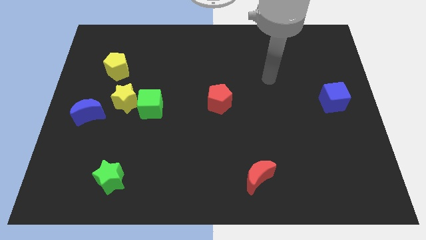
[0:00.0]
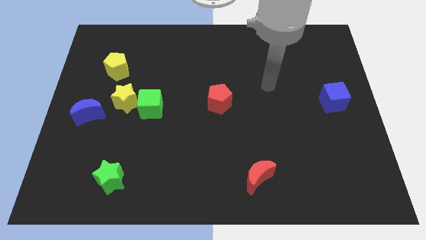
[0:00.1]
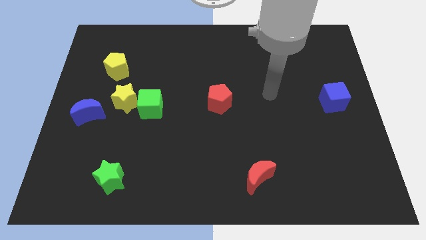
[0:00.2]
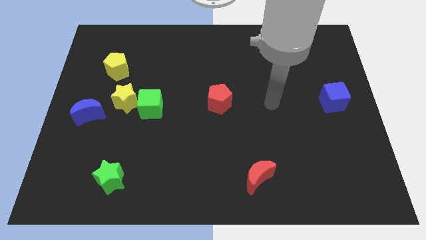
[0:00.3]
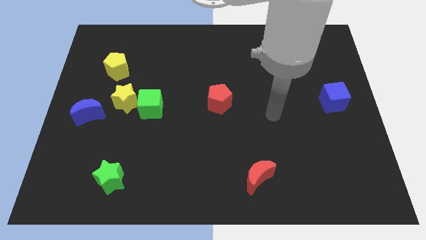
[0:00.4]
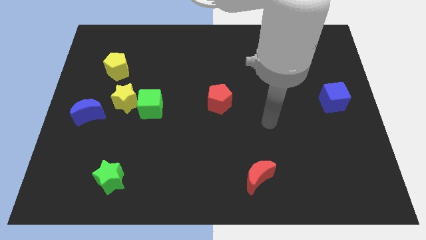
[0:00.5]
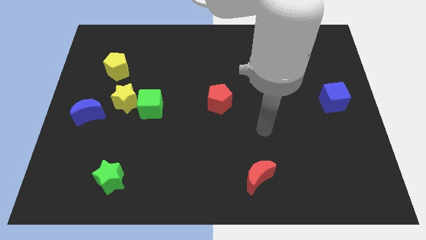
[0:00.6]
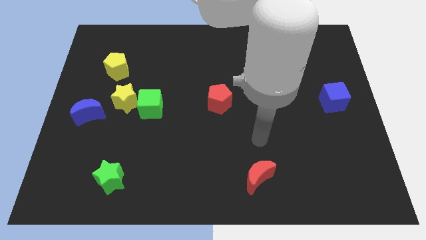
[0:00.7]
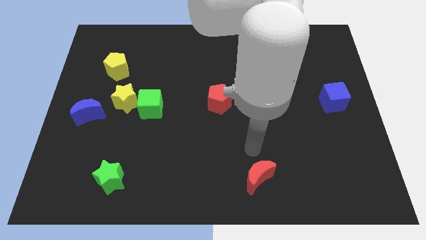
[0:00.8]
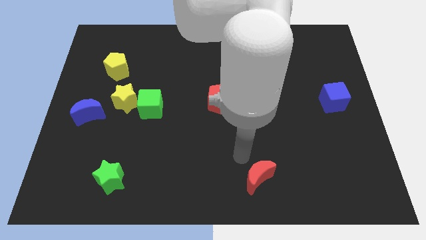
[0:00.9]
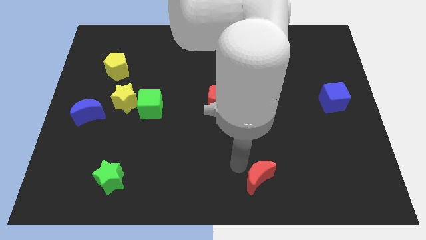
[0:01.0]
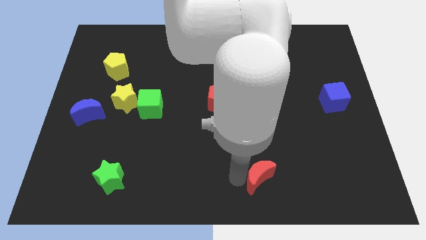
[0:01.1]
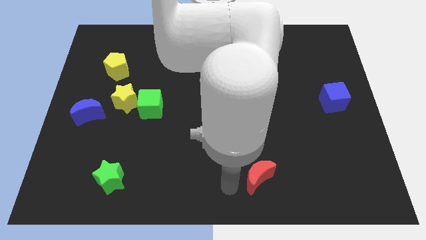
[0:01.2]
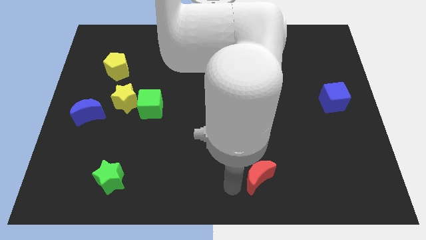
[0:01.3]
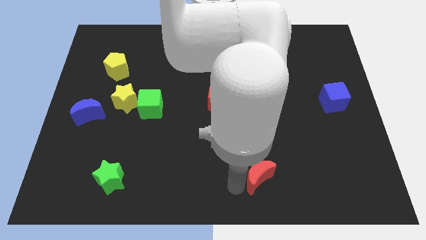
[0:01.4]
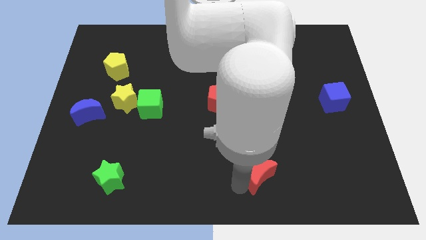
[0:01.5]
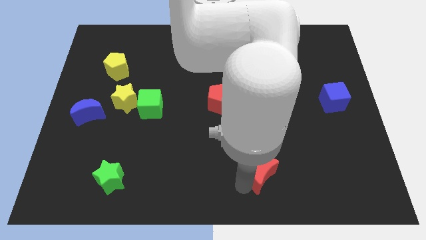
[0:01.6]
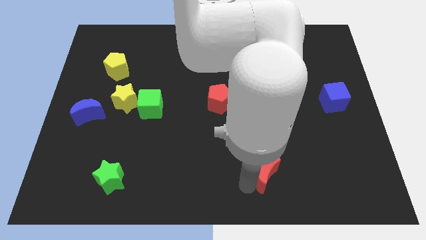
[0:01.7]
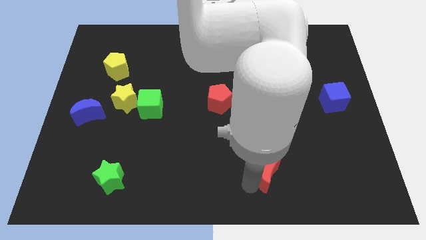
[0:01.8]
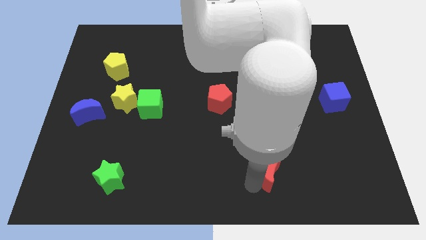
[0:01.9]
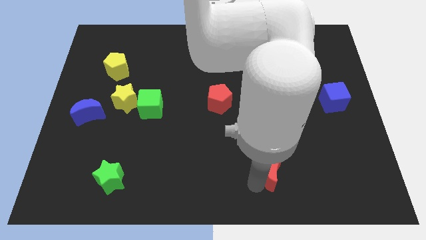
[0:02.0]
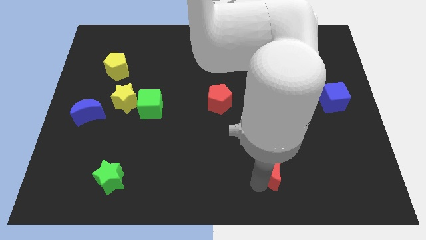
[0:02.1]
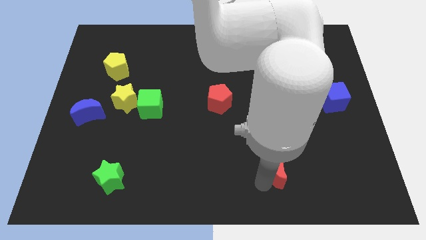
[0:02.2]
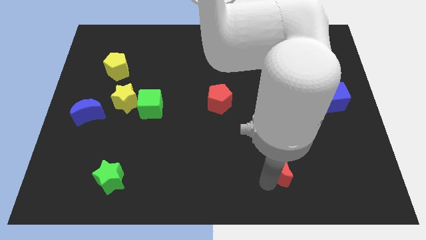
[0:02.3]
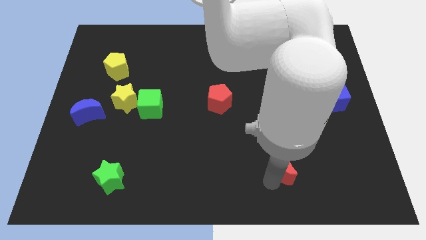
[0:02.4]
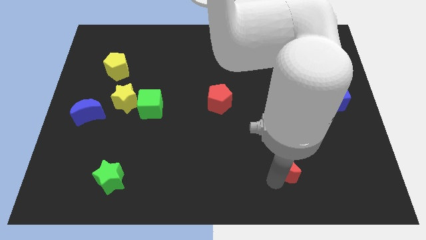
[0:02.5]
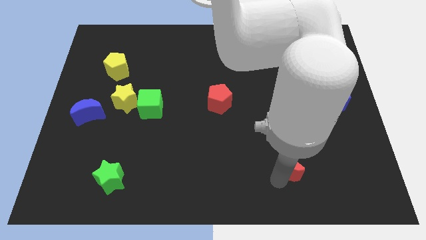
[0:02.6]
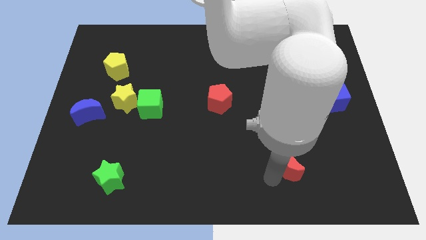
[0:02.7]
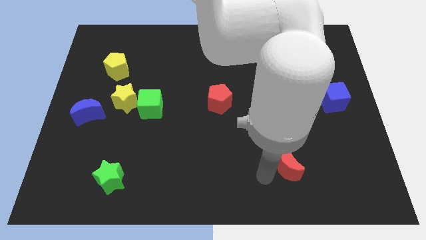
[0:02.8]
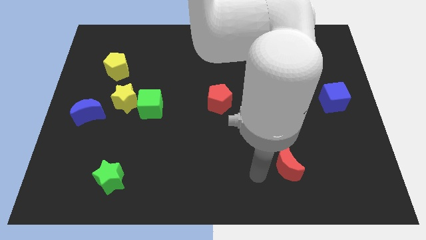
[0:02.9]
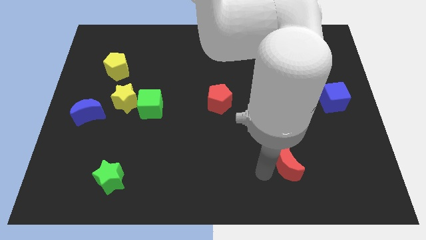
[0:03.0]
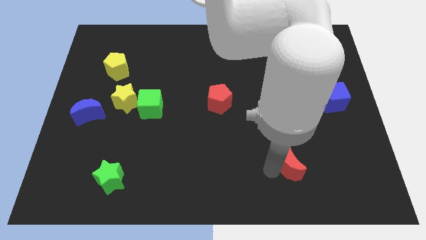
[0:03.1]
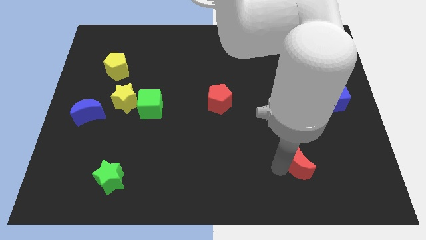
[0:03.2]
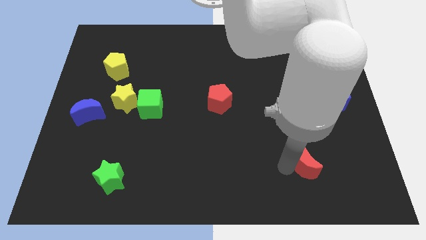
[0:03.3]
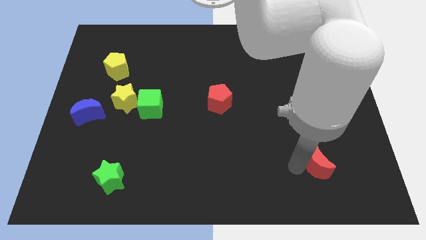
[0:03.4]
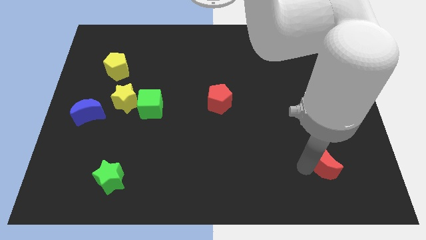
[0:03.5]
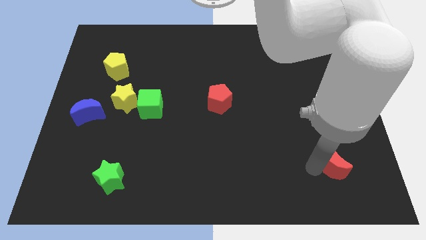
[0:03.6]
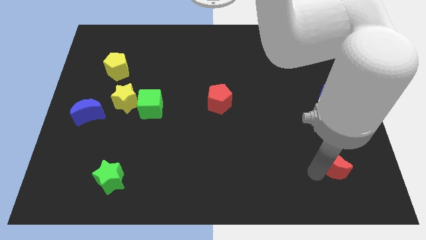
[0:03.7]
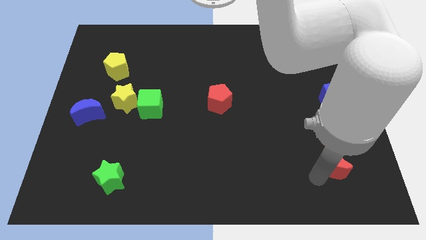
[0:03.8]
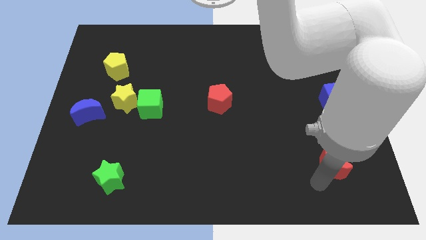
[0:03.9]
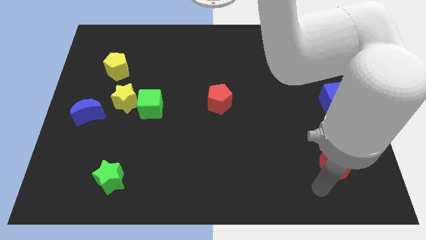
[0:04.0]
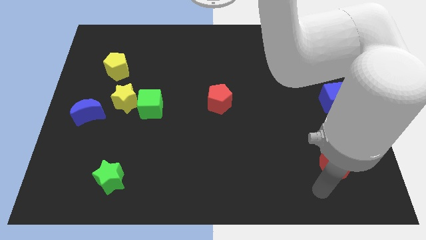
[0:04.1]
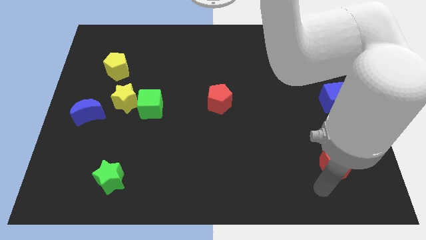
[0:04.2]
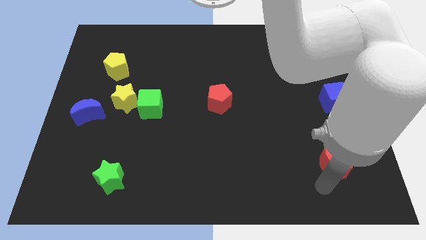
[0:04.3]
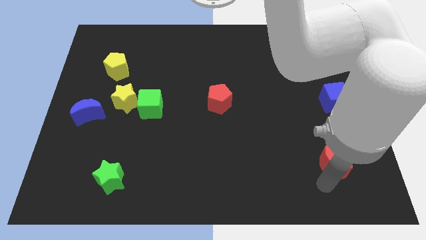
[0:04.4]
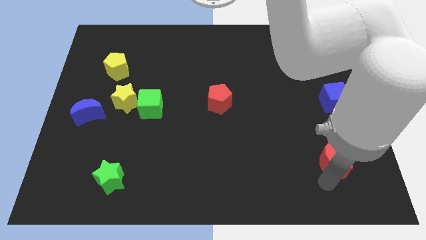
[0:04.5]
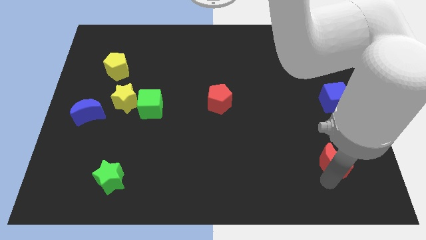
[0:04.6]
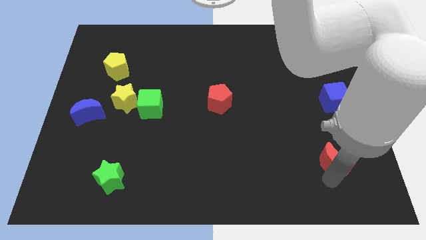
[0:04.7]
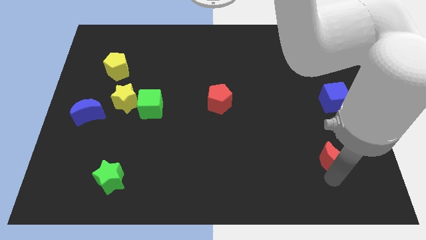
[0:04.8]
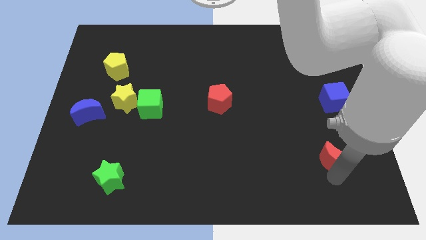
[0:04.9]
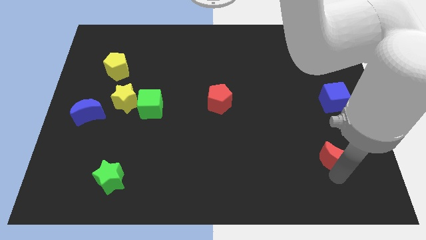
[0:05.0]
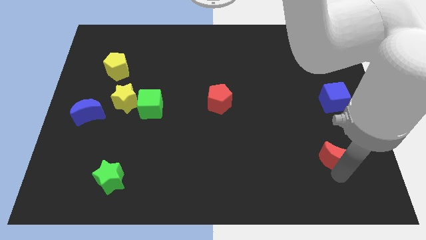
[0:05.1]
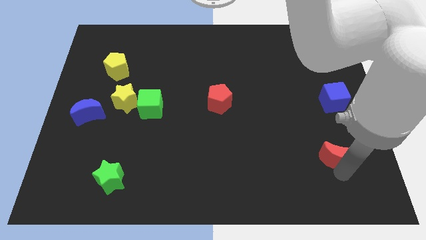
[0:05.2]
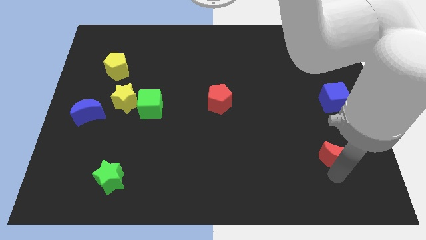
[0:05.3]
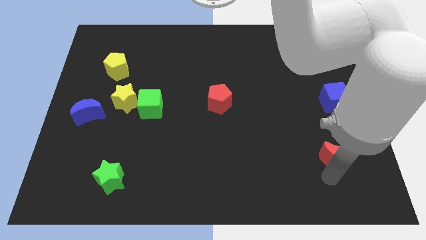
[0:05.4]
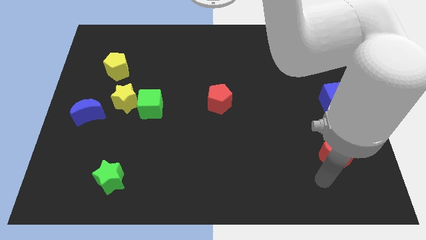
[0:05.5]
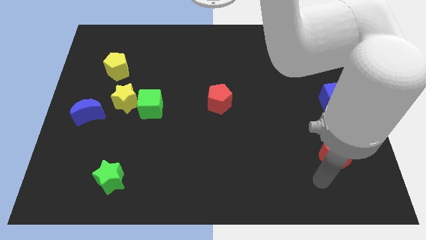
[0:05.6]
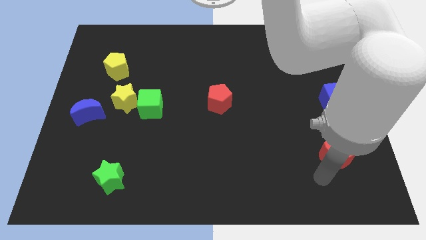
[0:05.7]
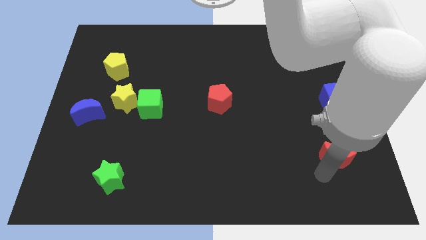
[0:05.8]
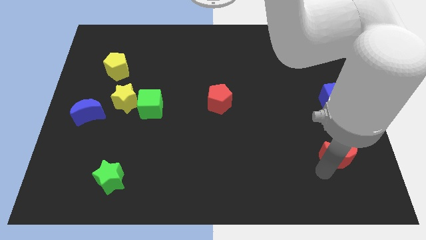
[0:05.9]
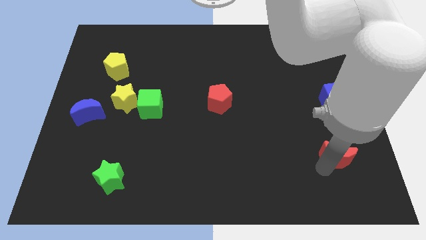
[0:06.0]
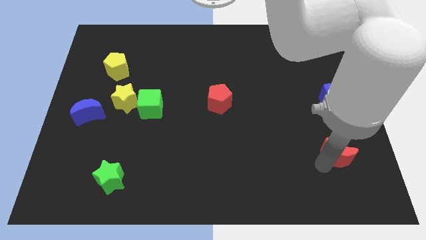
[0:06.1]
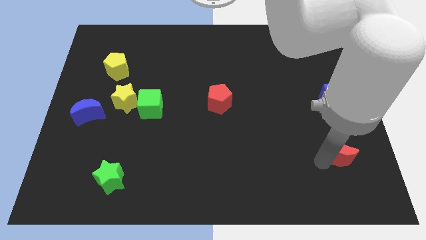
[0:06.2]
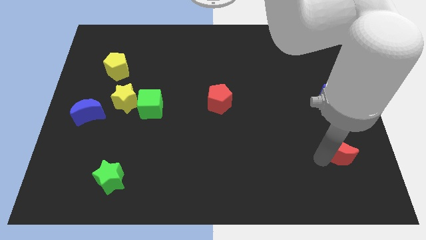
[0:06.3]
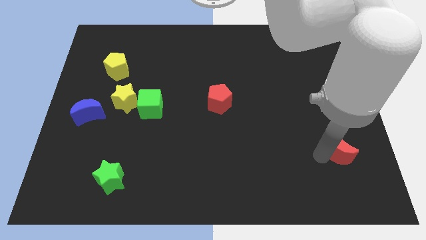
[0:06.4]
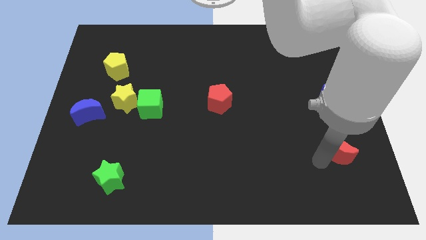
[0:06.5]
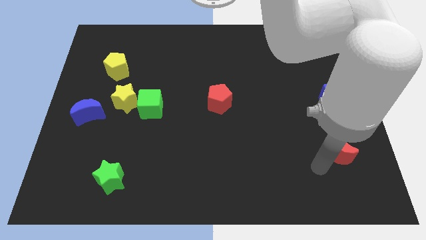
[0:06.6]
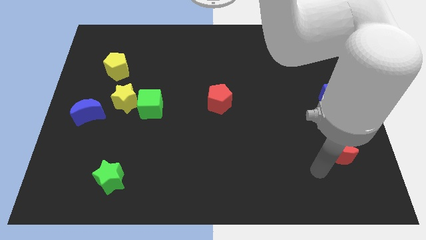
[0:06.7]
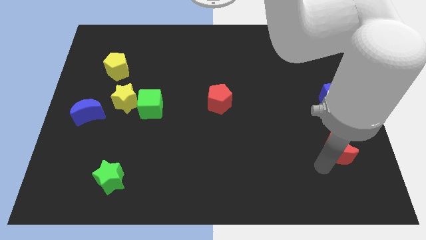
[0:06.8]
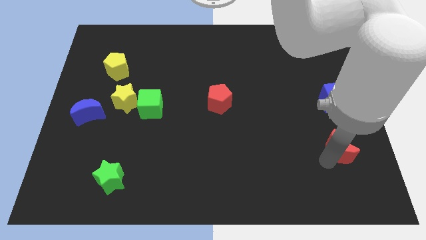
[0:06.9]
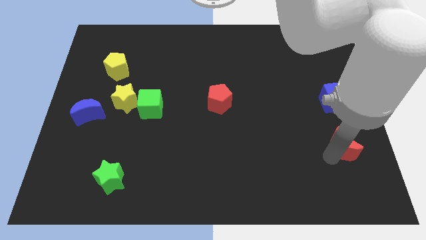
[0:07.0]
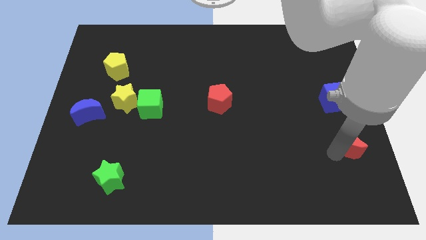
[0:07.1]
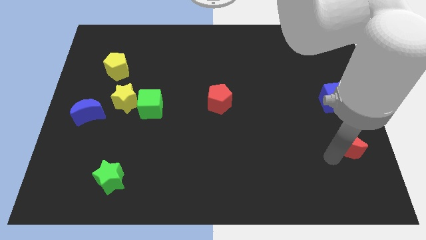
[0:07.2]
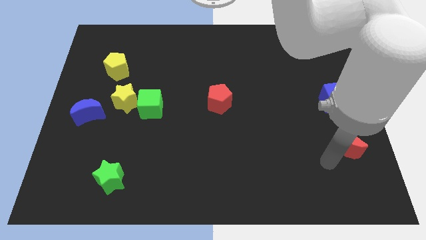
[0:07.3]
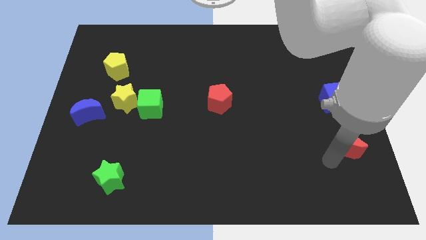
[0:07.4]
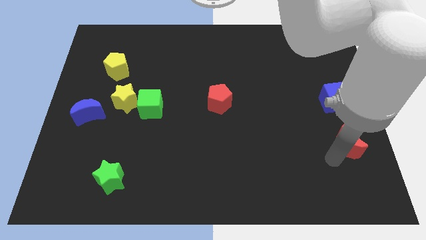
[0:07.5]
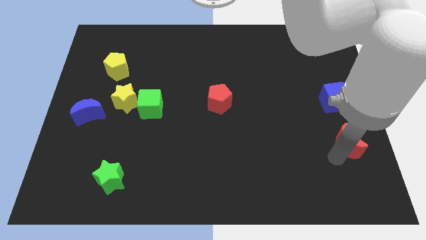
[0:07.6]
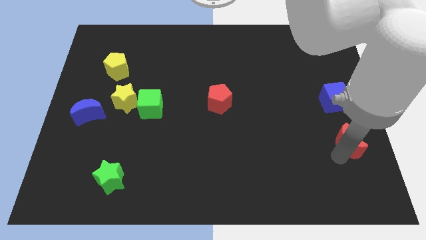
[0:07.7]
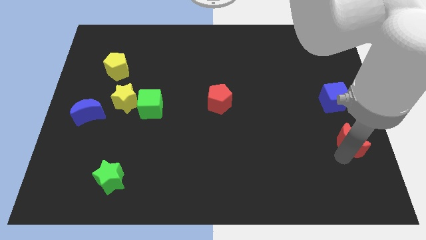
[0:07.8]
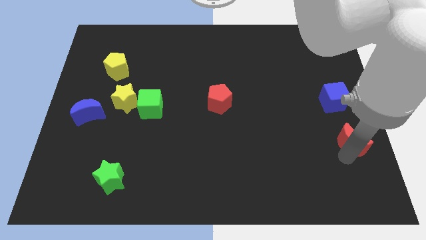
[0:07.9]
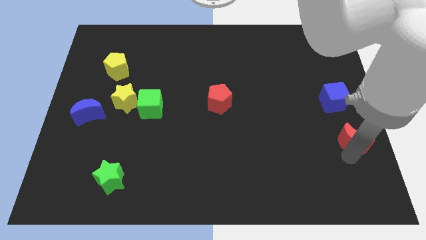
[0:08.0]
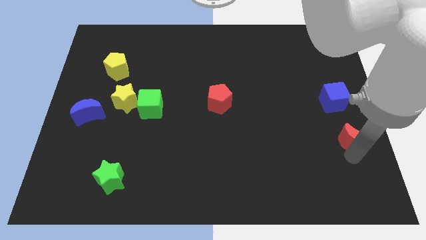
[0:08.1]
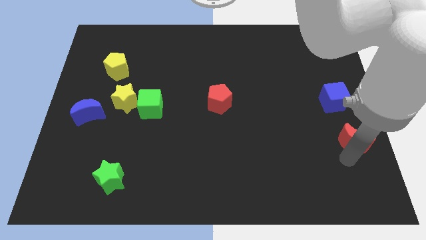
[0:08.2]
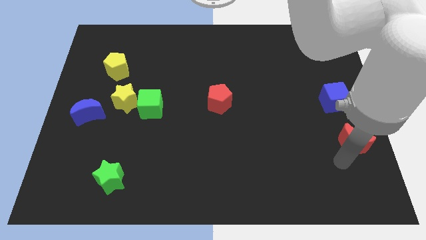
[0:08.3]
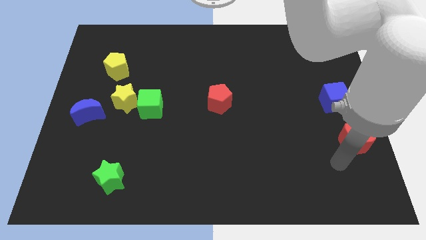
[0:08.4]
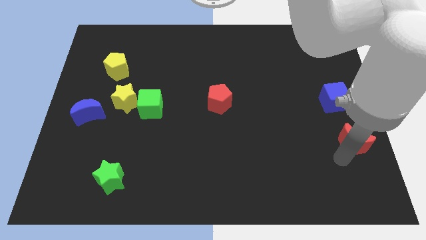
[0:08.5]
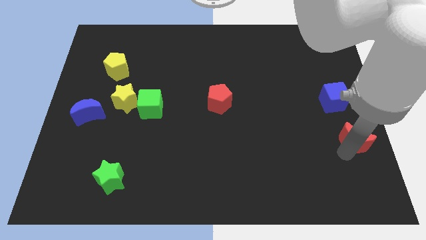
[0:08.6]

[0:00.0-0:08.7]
slide the red moon to the center right
